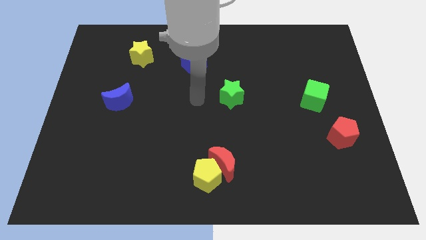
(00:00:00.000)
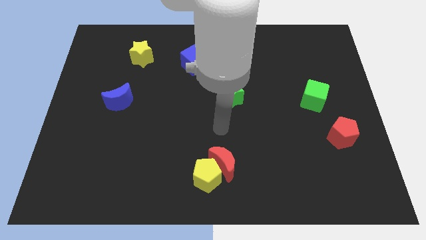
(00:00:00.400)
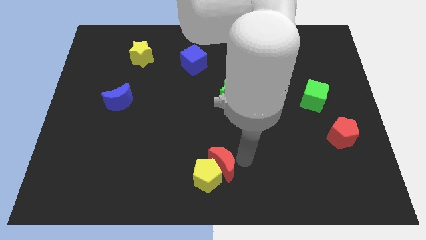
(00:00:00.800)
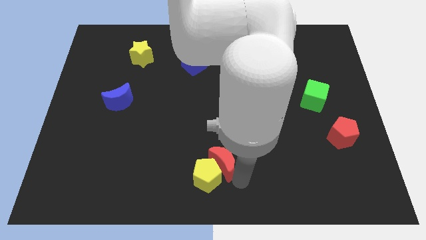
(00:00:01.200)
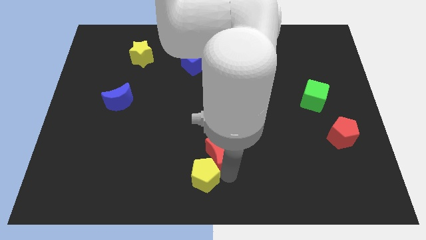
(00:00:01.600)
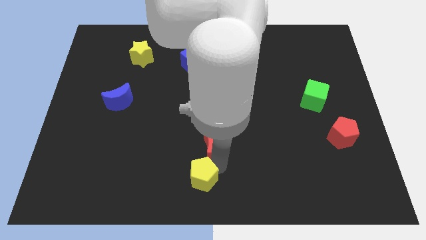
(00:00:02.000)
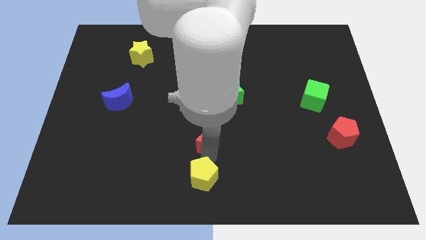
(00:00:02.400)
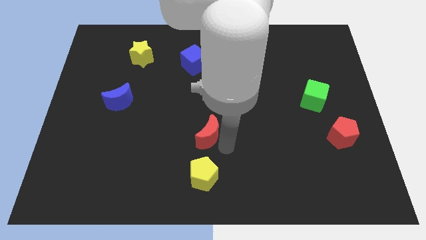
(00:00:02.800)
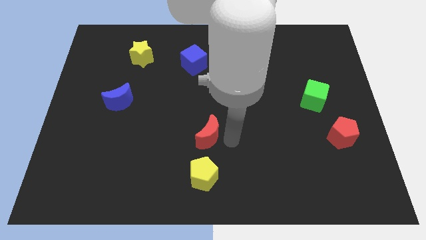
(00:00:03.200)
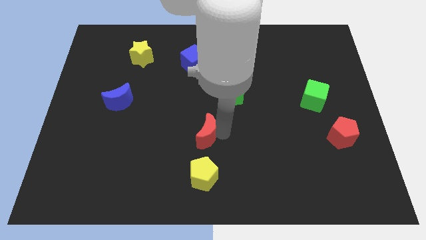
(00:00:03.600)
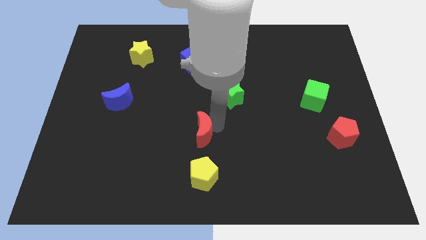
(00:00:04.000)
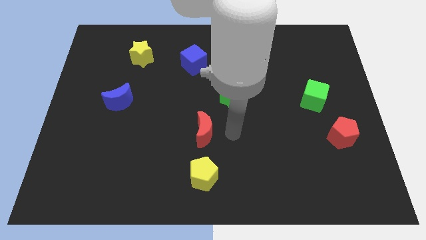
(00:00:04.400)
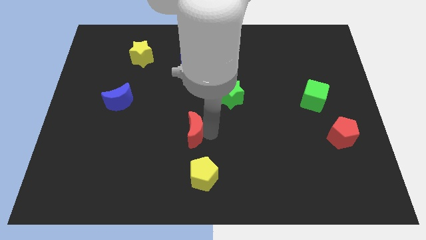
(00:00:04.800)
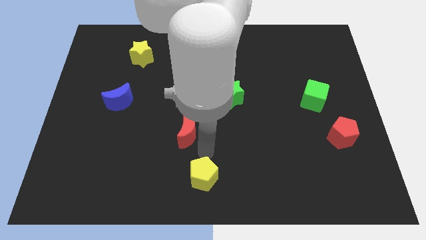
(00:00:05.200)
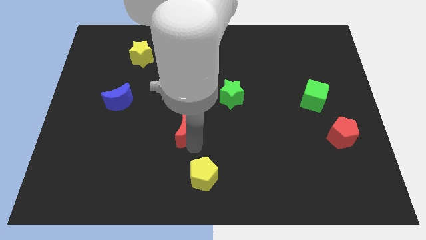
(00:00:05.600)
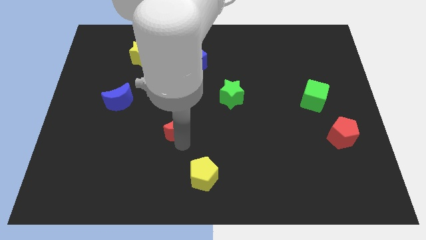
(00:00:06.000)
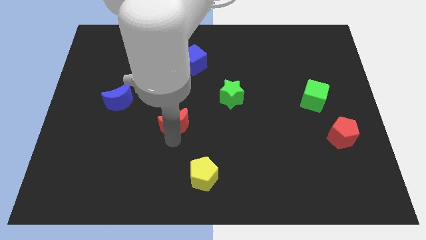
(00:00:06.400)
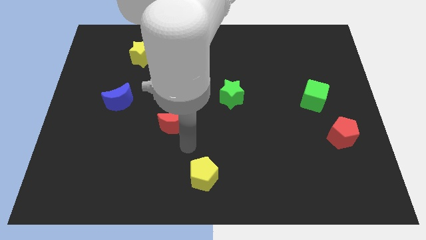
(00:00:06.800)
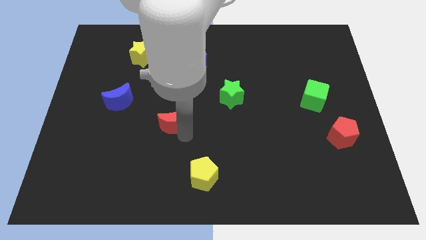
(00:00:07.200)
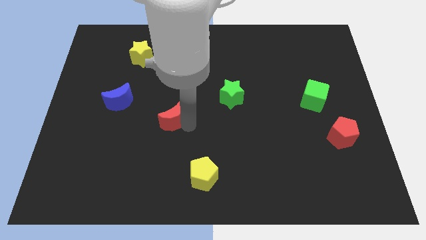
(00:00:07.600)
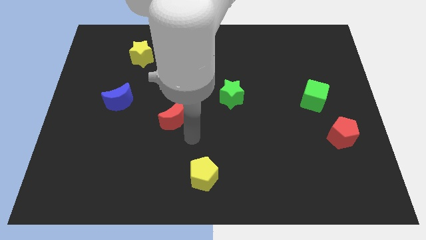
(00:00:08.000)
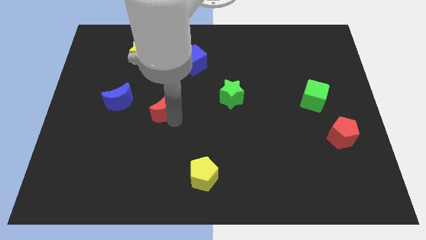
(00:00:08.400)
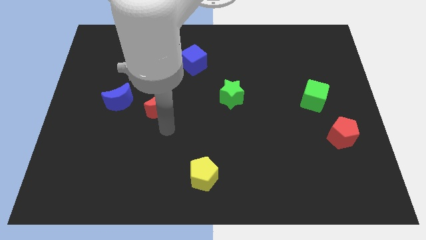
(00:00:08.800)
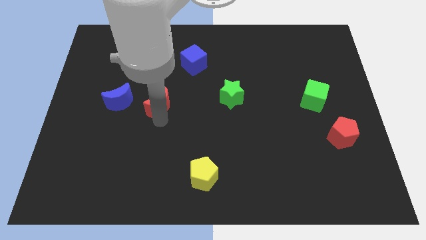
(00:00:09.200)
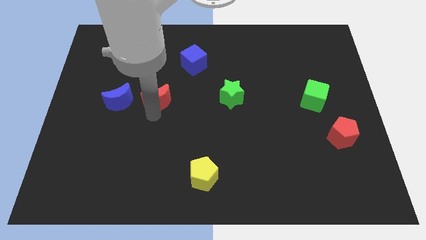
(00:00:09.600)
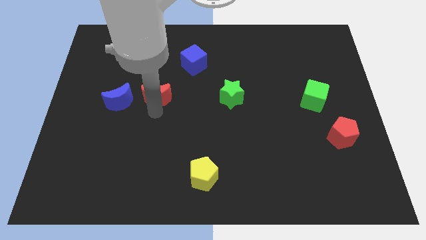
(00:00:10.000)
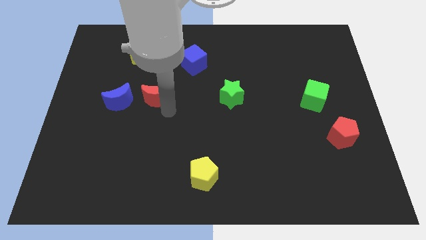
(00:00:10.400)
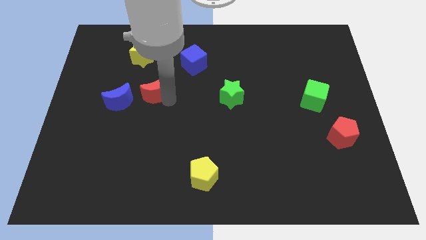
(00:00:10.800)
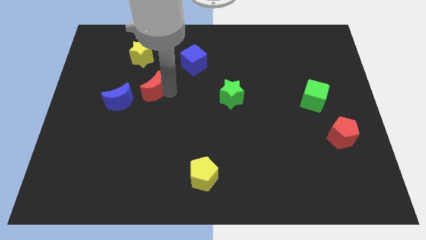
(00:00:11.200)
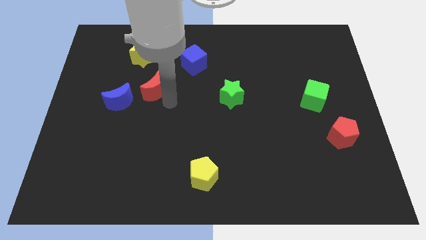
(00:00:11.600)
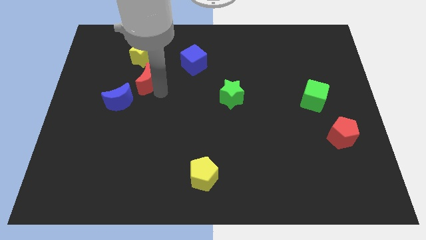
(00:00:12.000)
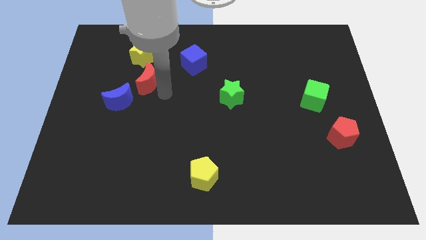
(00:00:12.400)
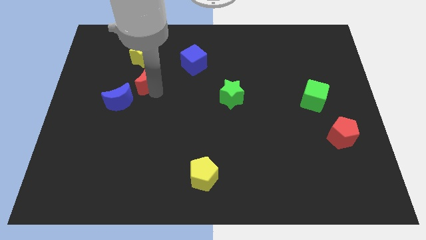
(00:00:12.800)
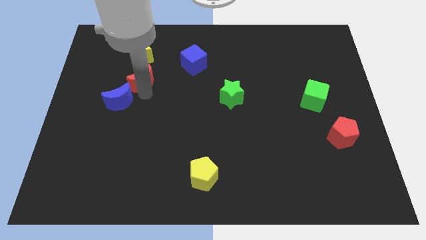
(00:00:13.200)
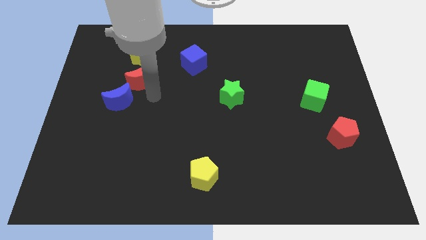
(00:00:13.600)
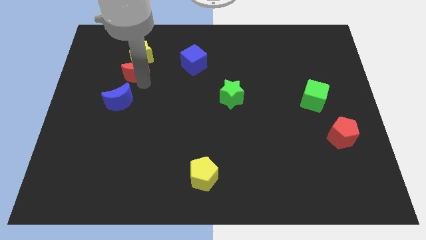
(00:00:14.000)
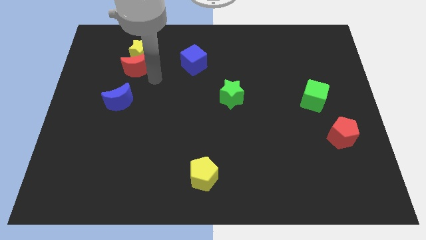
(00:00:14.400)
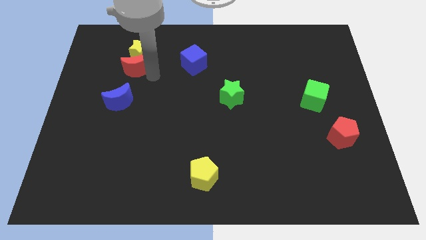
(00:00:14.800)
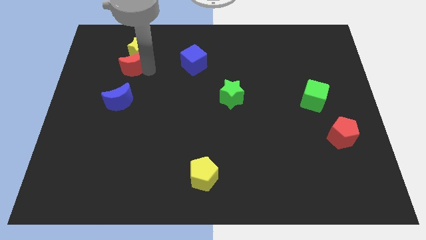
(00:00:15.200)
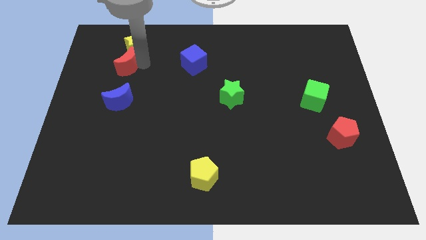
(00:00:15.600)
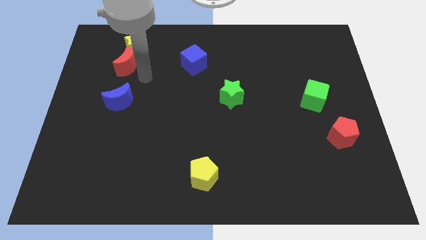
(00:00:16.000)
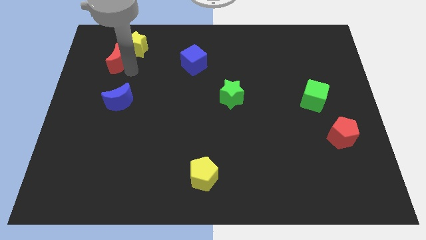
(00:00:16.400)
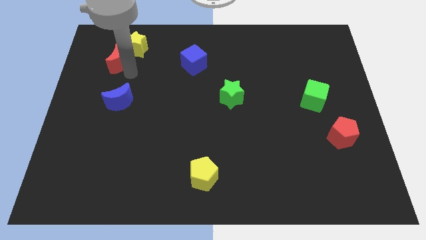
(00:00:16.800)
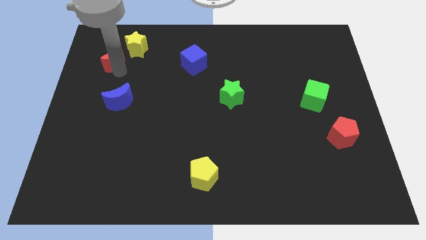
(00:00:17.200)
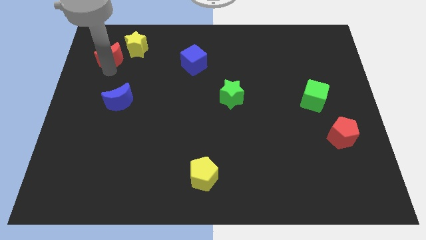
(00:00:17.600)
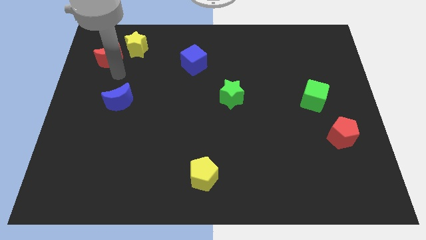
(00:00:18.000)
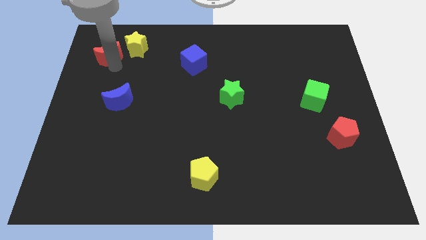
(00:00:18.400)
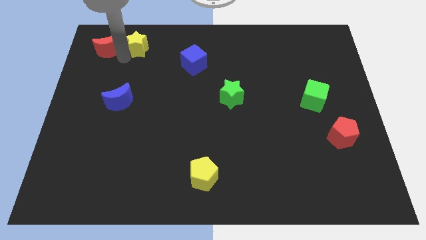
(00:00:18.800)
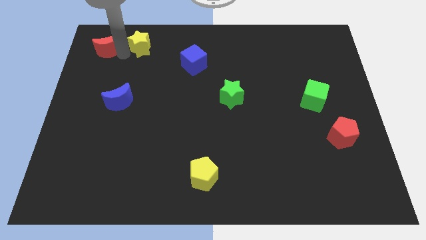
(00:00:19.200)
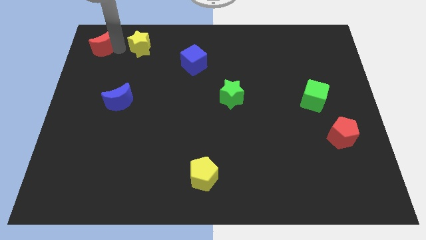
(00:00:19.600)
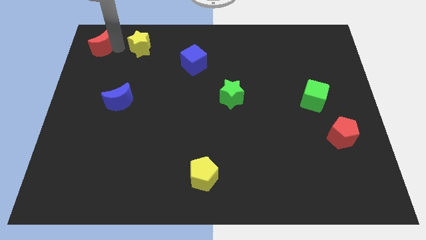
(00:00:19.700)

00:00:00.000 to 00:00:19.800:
move the red moon to the upper left corner

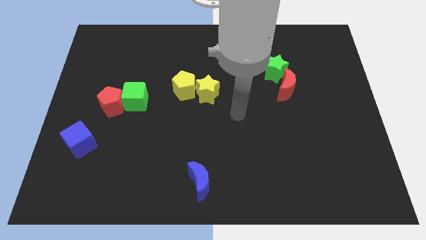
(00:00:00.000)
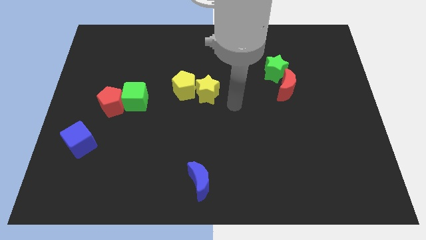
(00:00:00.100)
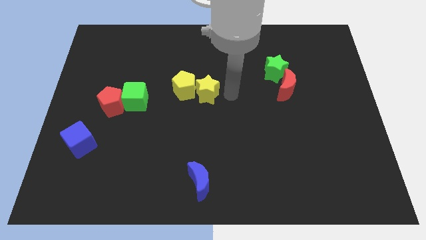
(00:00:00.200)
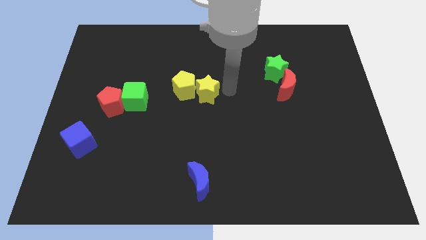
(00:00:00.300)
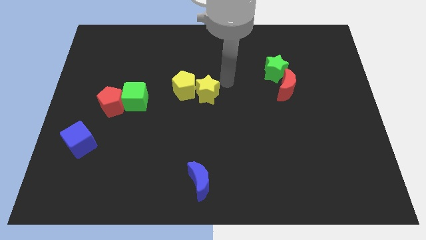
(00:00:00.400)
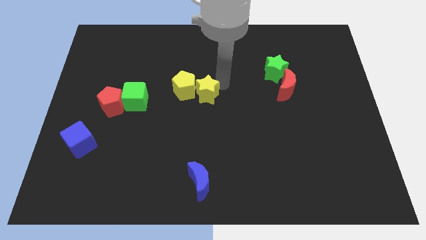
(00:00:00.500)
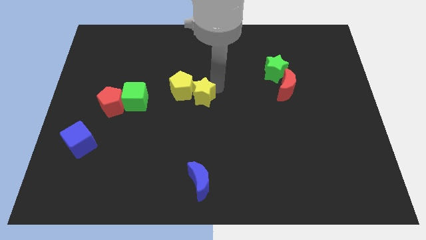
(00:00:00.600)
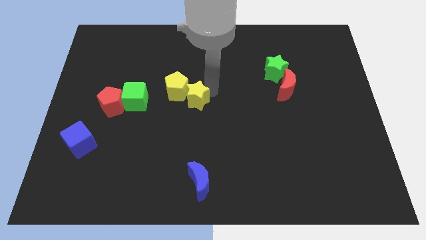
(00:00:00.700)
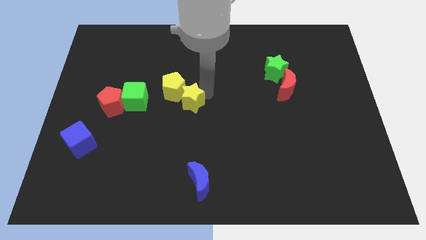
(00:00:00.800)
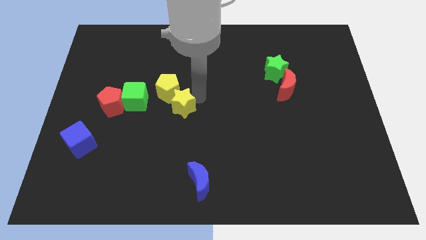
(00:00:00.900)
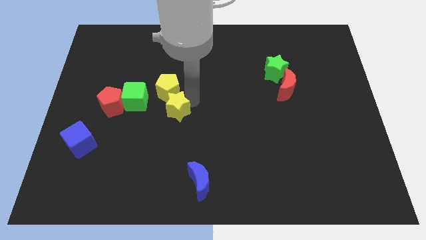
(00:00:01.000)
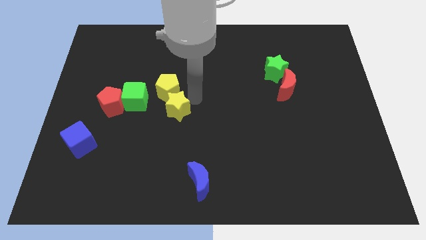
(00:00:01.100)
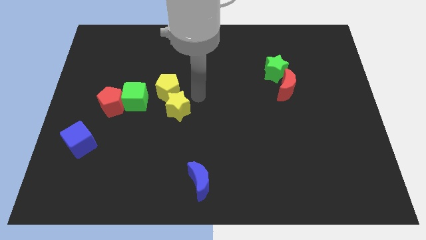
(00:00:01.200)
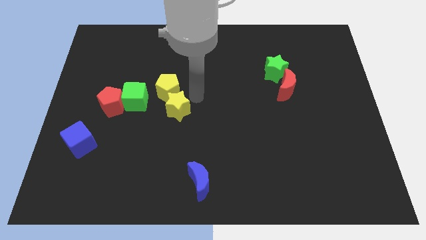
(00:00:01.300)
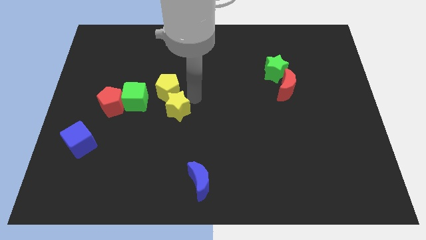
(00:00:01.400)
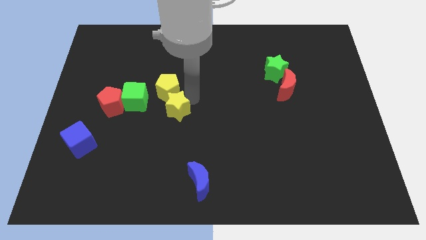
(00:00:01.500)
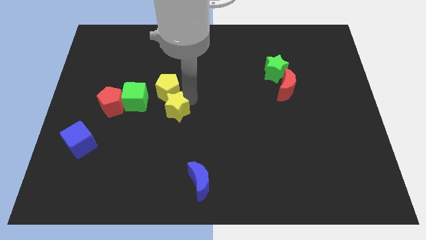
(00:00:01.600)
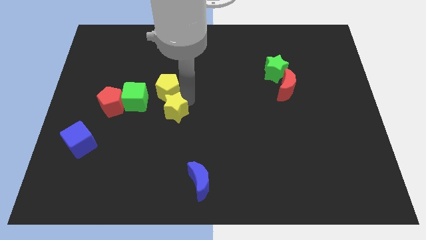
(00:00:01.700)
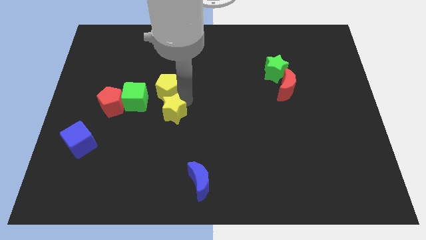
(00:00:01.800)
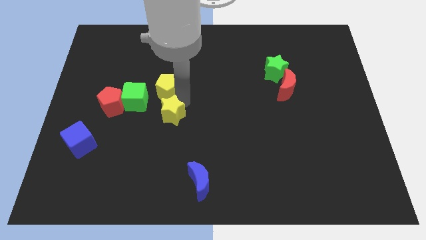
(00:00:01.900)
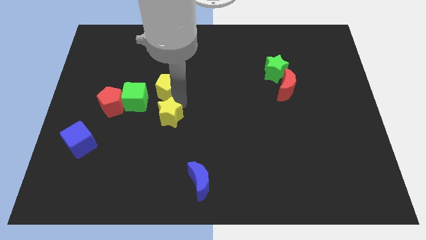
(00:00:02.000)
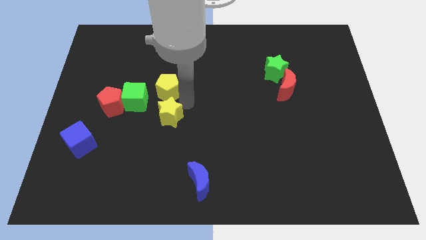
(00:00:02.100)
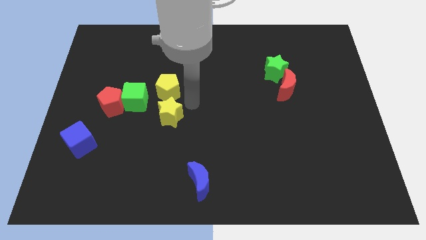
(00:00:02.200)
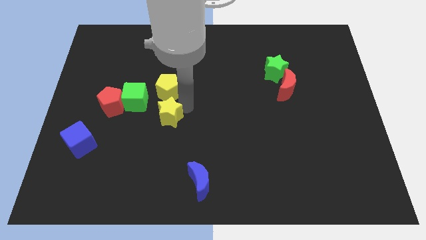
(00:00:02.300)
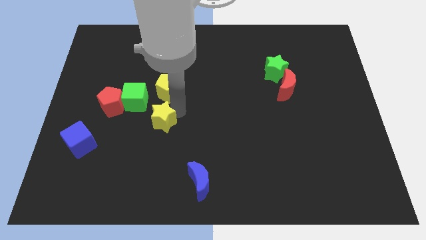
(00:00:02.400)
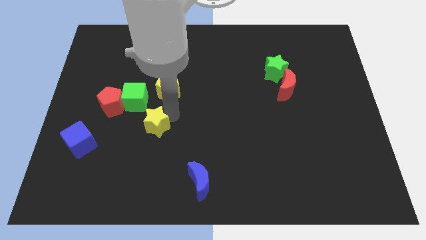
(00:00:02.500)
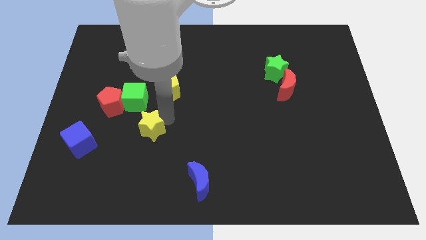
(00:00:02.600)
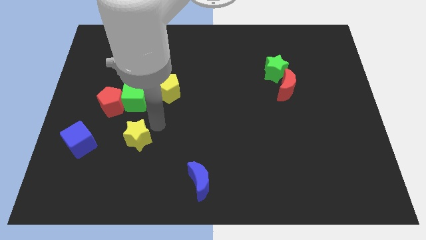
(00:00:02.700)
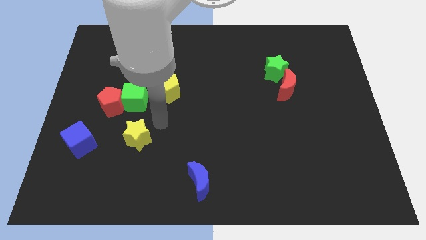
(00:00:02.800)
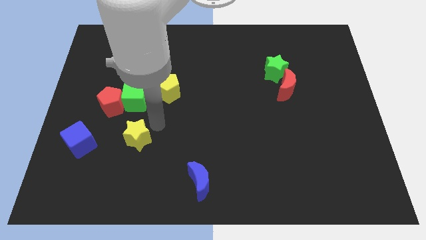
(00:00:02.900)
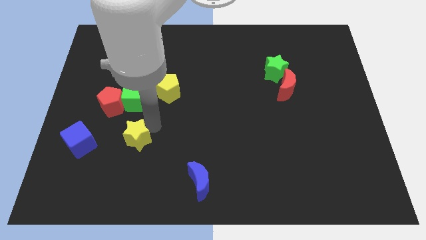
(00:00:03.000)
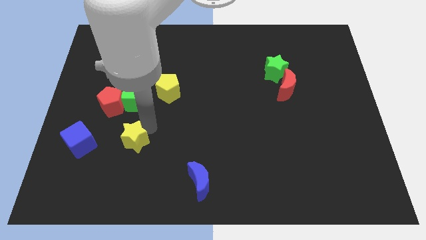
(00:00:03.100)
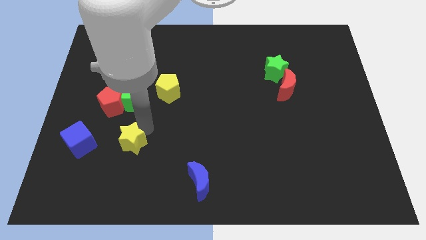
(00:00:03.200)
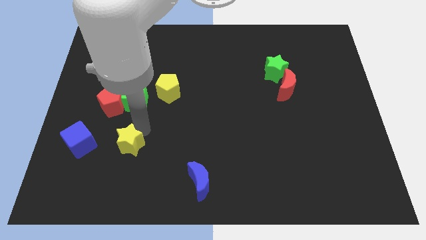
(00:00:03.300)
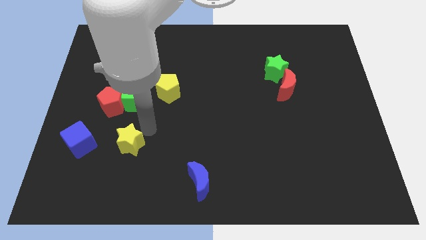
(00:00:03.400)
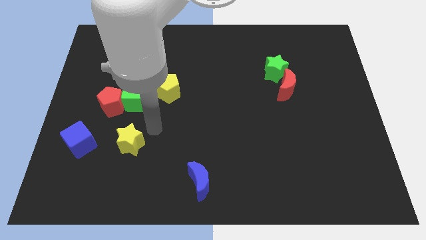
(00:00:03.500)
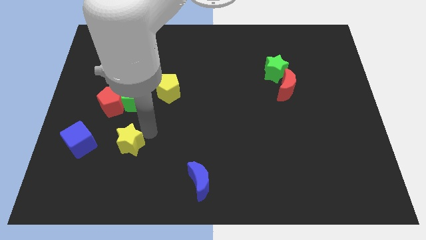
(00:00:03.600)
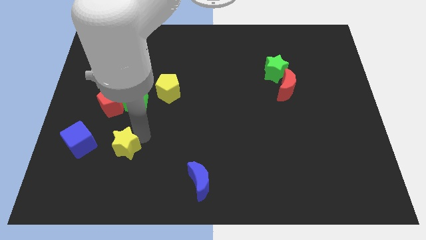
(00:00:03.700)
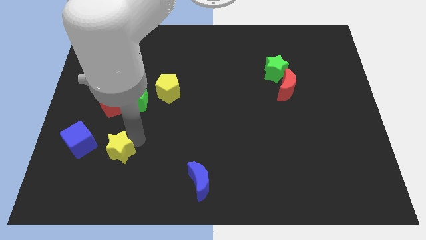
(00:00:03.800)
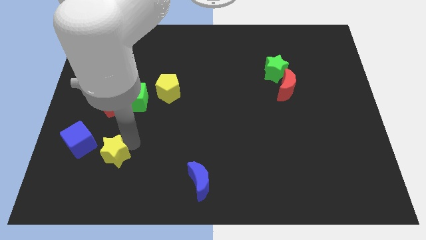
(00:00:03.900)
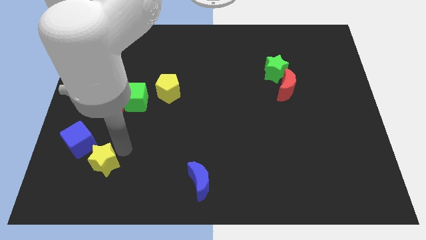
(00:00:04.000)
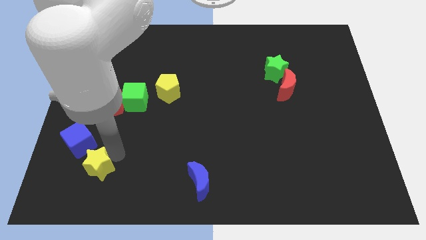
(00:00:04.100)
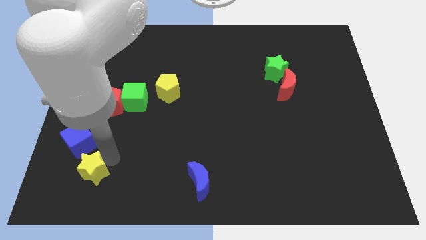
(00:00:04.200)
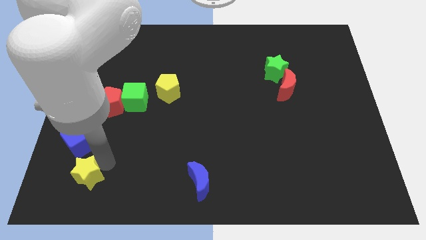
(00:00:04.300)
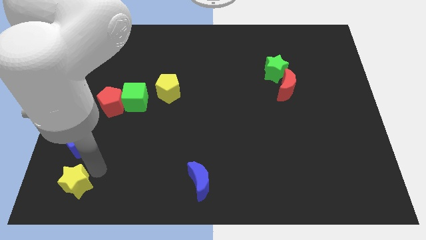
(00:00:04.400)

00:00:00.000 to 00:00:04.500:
slide the yellow star to the bottom left corner
